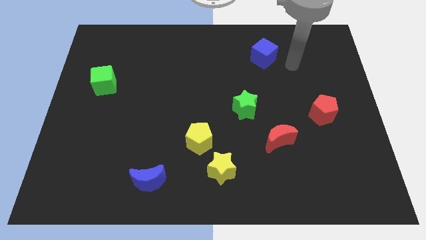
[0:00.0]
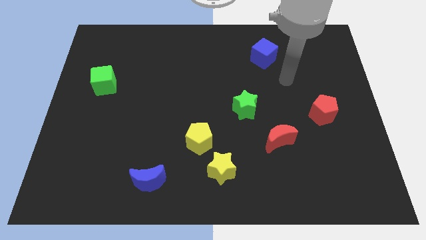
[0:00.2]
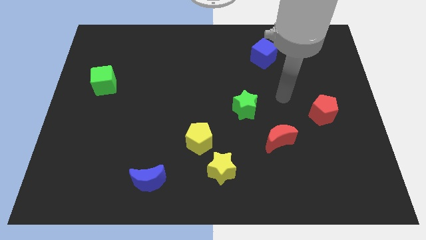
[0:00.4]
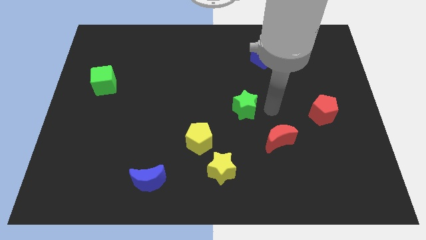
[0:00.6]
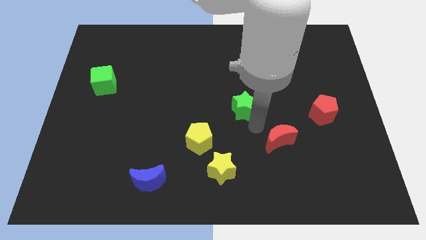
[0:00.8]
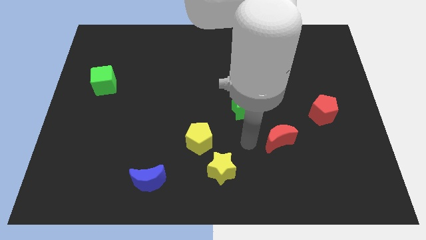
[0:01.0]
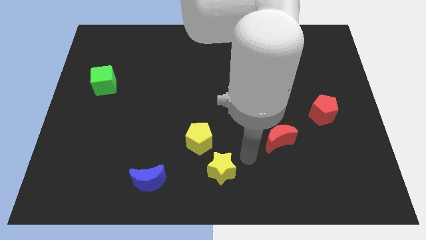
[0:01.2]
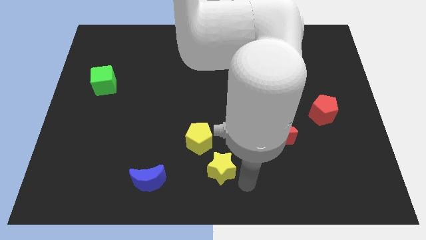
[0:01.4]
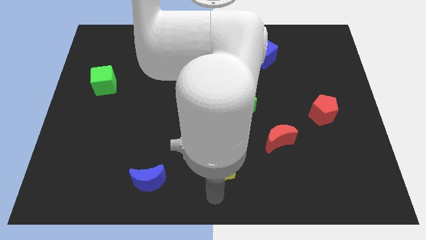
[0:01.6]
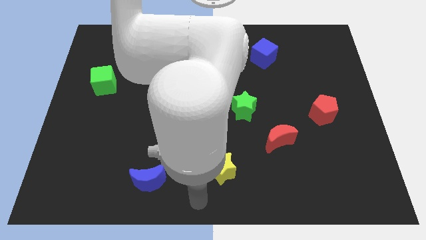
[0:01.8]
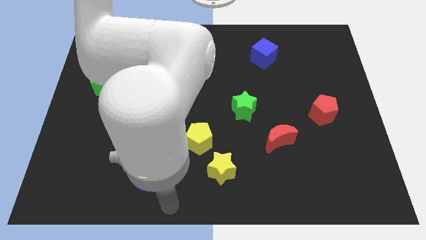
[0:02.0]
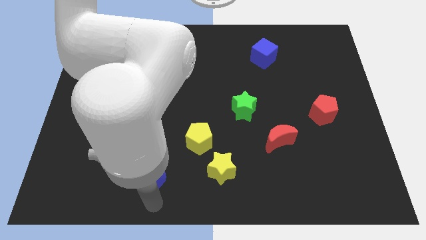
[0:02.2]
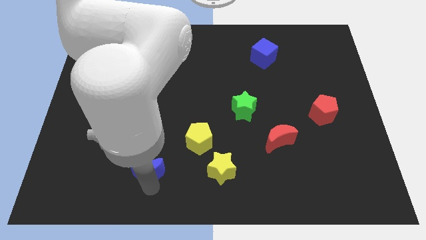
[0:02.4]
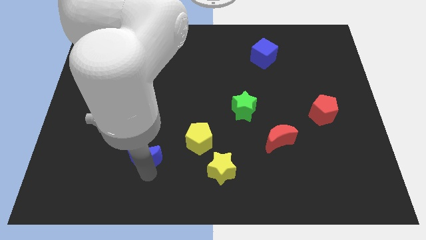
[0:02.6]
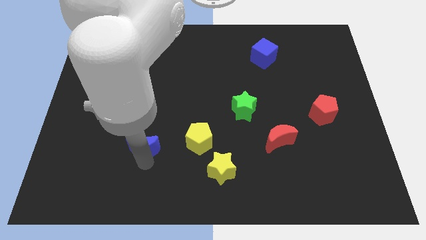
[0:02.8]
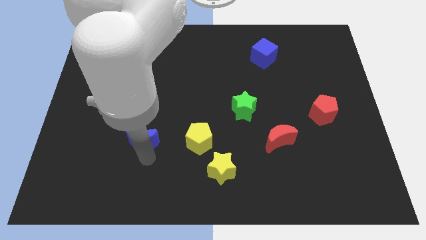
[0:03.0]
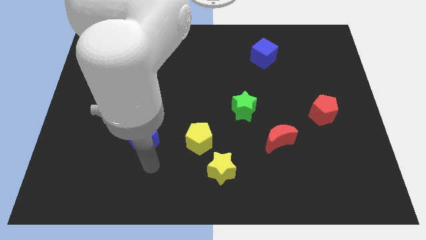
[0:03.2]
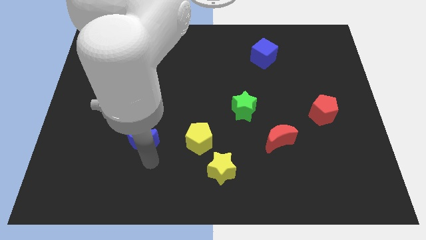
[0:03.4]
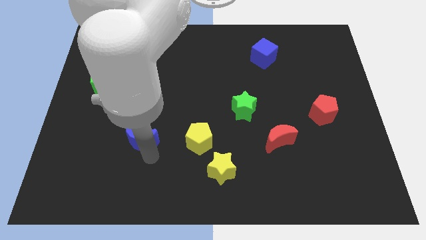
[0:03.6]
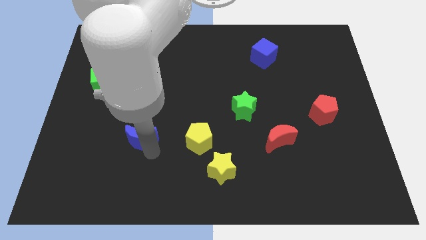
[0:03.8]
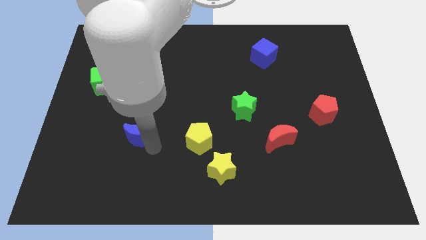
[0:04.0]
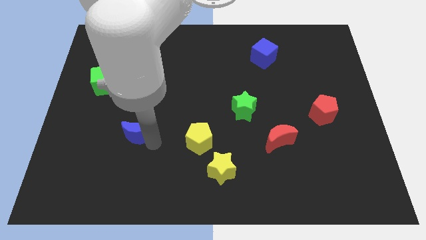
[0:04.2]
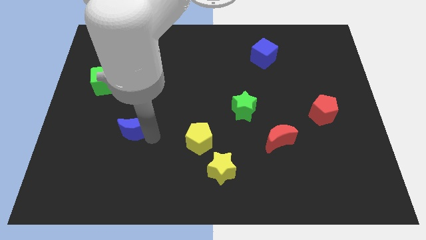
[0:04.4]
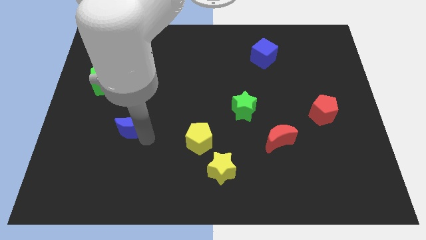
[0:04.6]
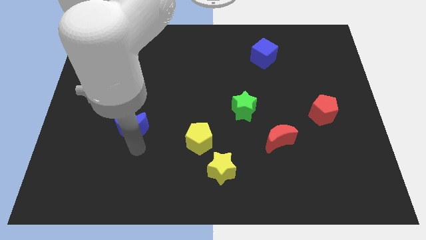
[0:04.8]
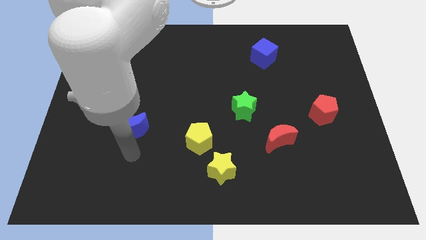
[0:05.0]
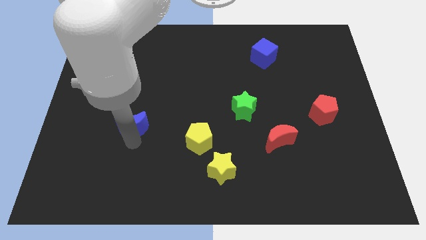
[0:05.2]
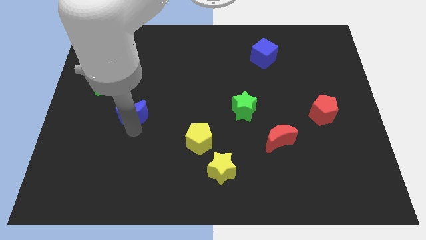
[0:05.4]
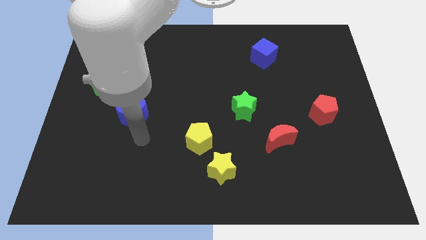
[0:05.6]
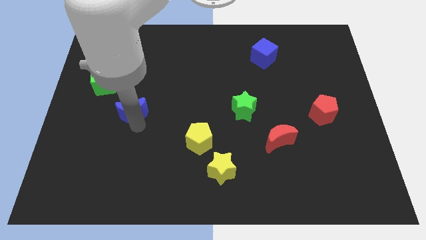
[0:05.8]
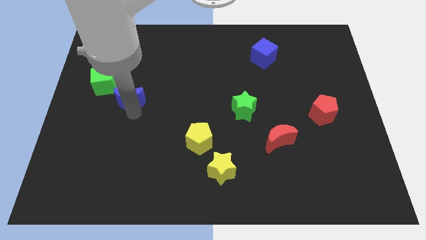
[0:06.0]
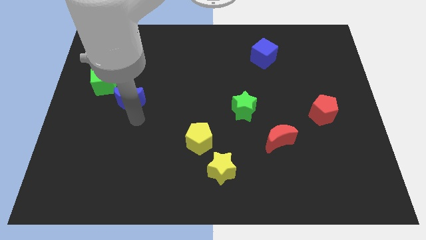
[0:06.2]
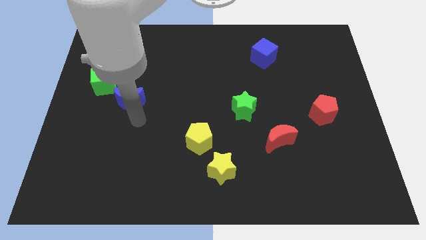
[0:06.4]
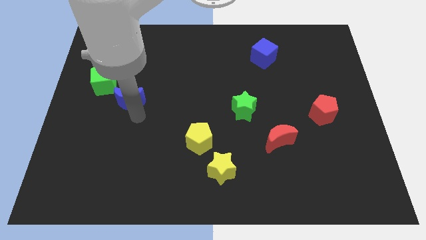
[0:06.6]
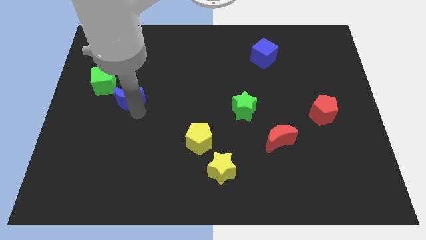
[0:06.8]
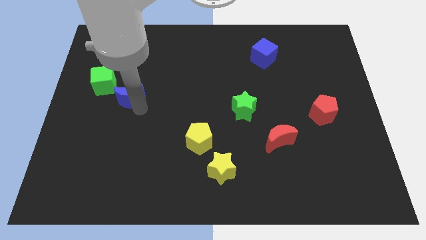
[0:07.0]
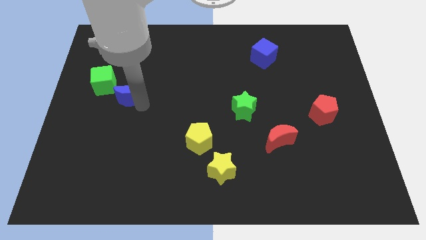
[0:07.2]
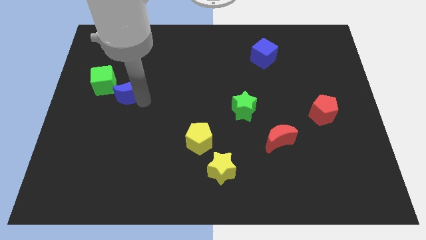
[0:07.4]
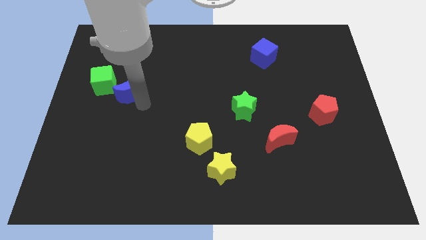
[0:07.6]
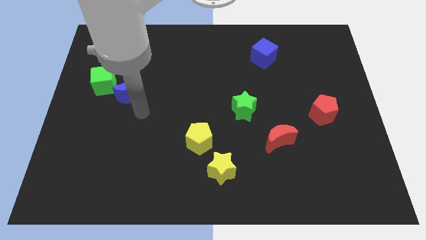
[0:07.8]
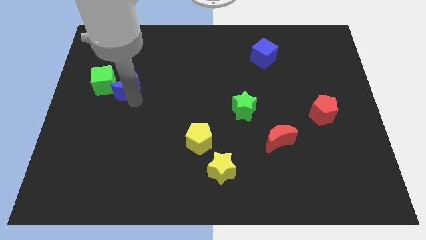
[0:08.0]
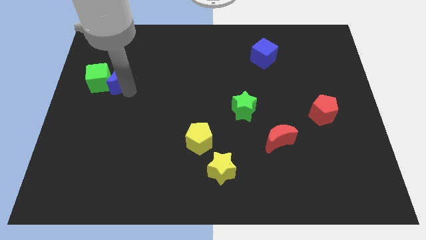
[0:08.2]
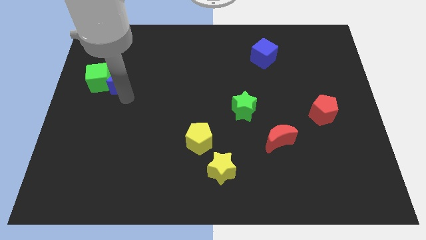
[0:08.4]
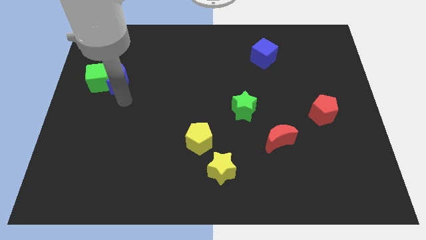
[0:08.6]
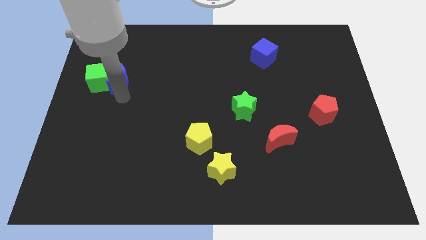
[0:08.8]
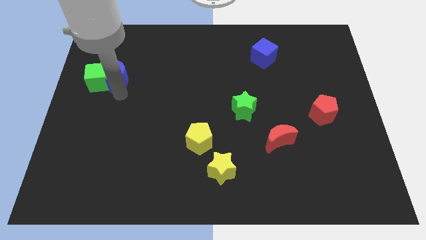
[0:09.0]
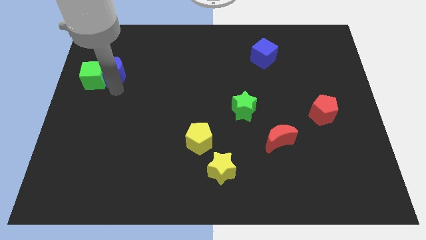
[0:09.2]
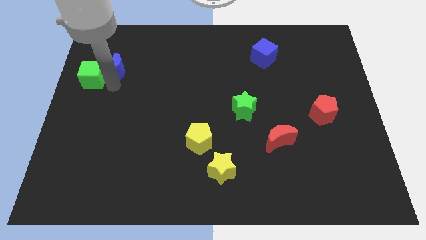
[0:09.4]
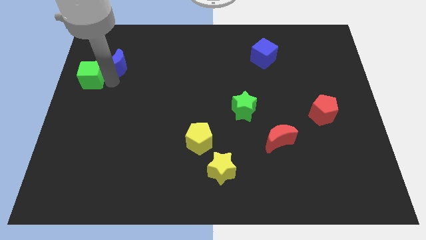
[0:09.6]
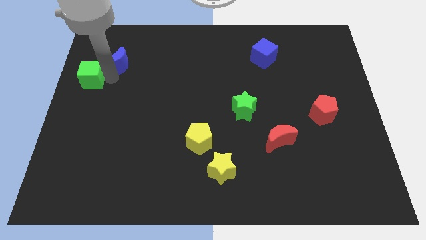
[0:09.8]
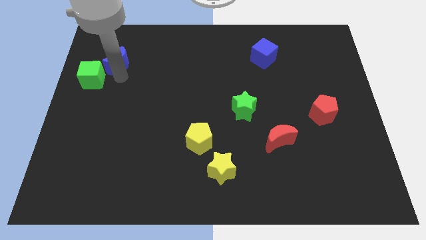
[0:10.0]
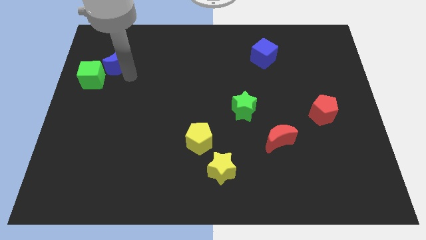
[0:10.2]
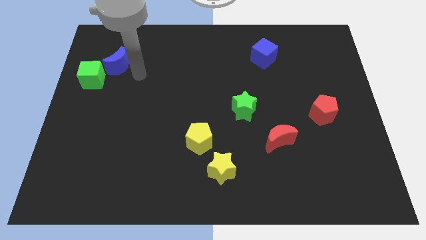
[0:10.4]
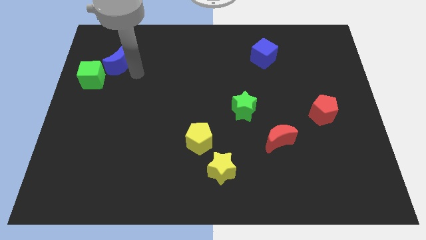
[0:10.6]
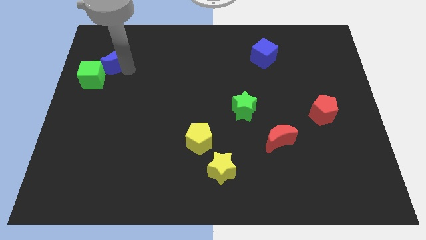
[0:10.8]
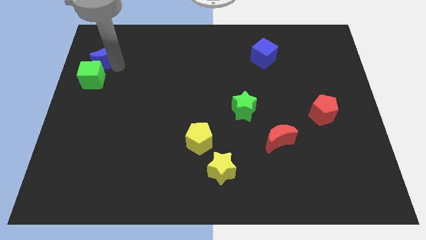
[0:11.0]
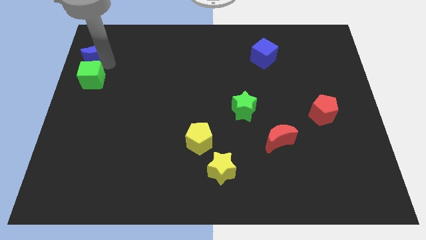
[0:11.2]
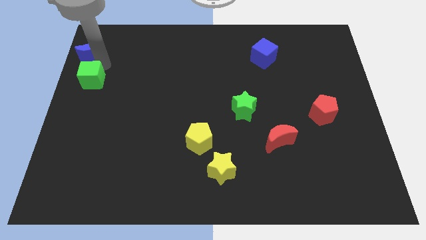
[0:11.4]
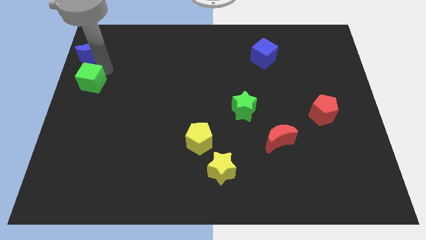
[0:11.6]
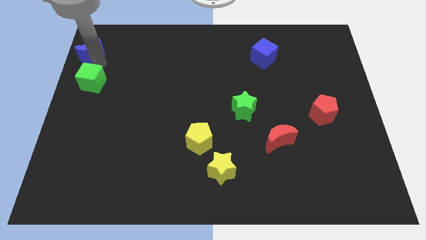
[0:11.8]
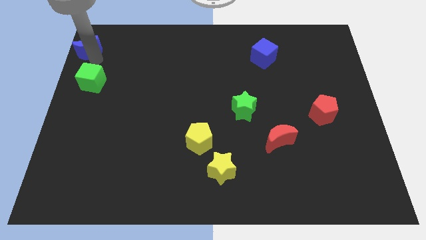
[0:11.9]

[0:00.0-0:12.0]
push the blue moon to the top left of the board
